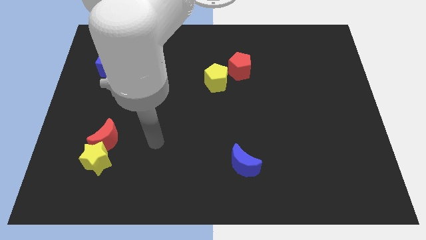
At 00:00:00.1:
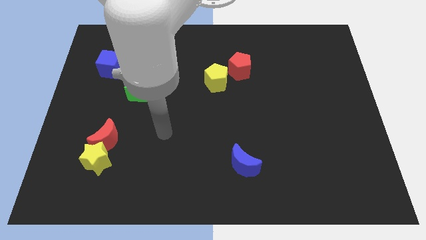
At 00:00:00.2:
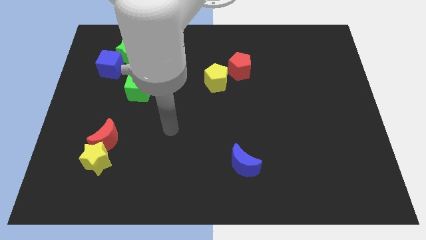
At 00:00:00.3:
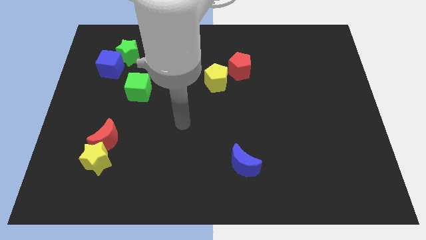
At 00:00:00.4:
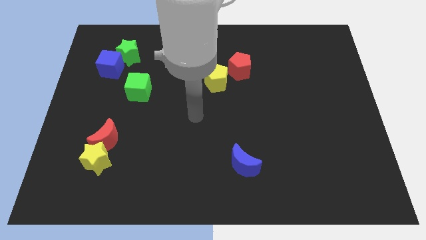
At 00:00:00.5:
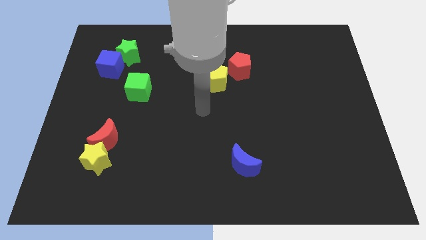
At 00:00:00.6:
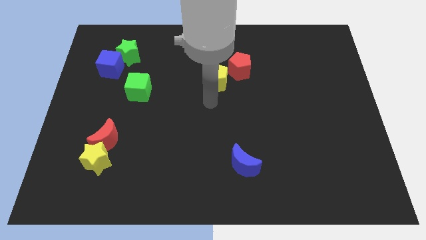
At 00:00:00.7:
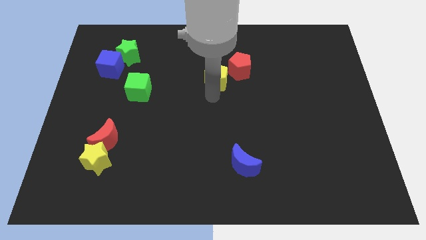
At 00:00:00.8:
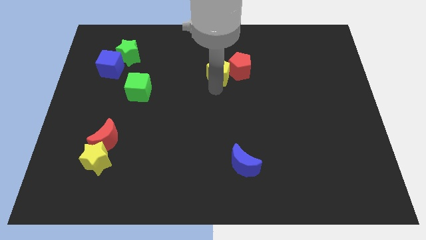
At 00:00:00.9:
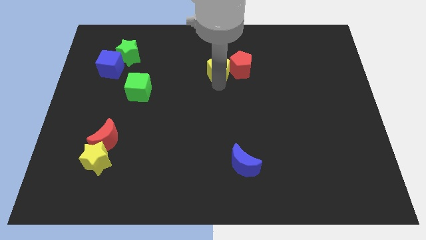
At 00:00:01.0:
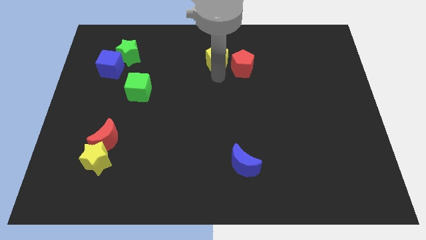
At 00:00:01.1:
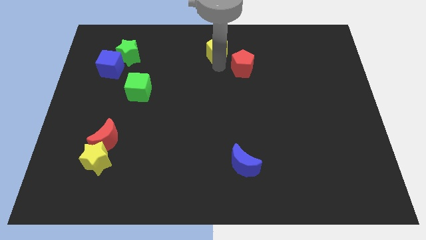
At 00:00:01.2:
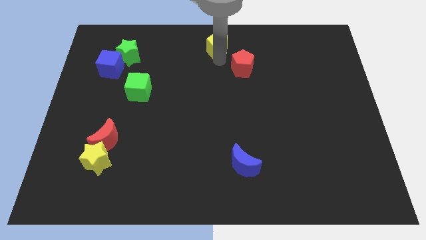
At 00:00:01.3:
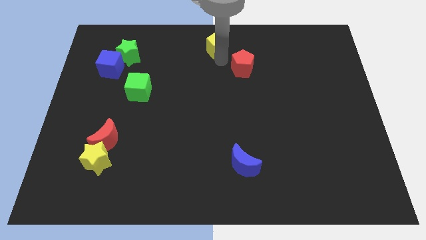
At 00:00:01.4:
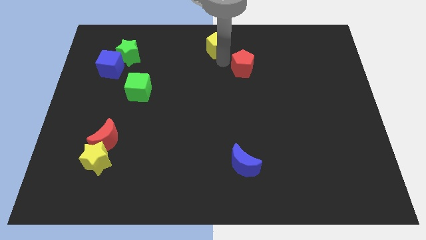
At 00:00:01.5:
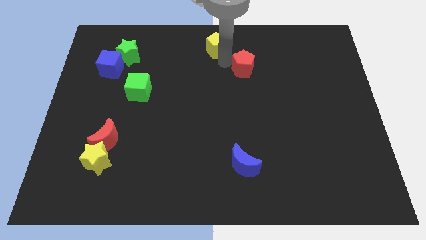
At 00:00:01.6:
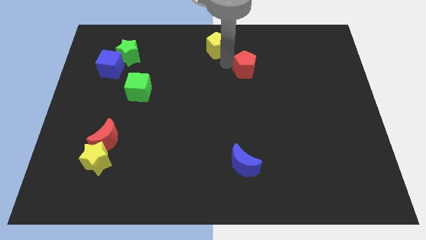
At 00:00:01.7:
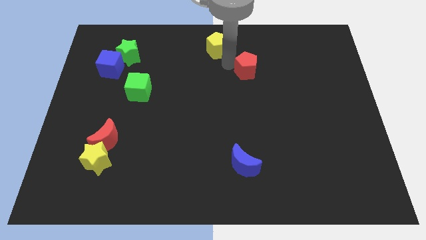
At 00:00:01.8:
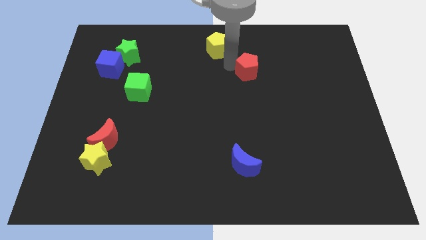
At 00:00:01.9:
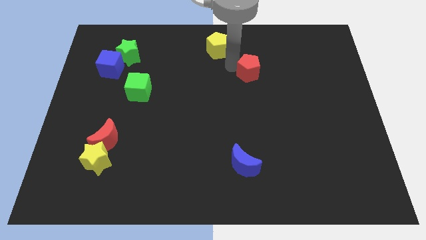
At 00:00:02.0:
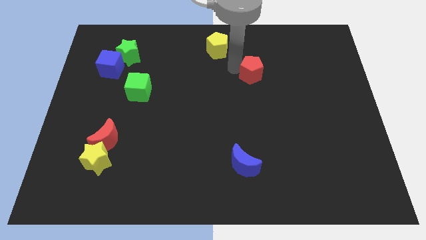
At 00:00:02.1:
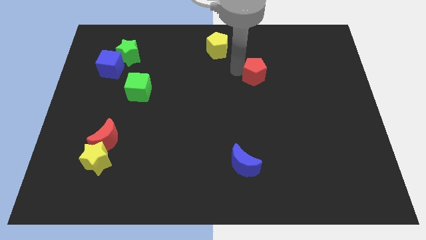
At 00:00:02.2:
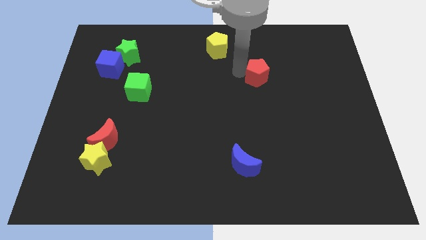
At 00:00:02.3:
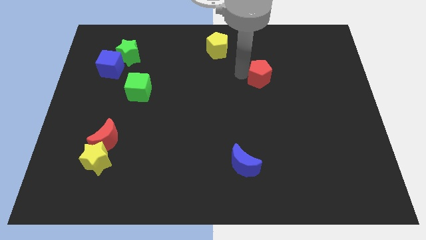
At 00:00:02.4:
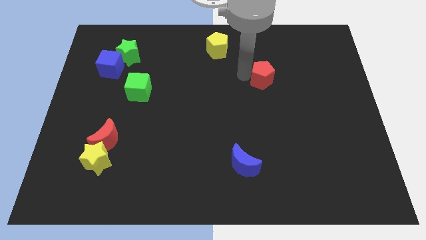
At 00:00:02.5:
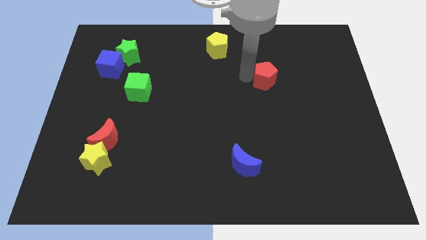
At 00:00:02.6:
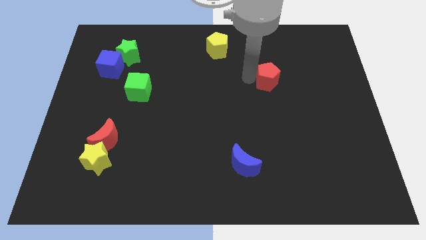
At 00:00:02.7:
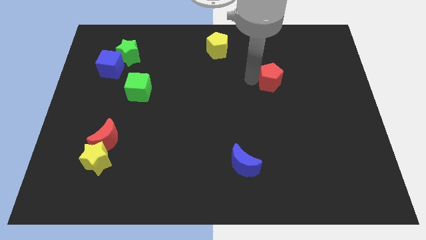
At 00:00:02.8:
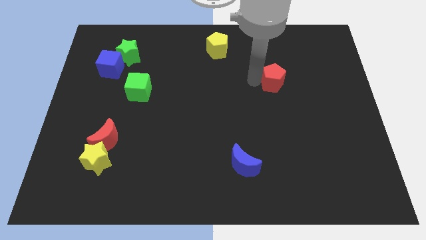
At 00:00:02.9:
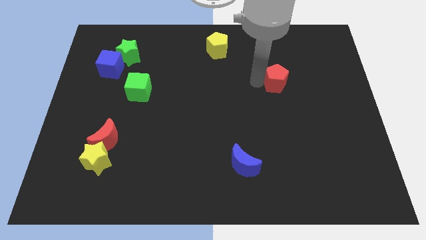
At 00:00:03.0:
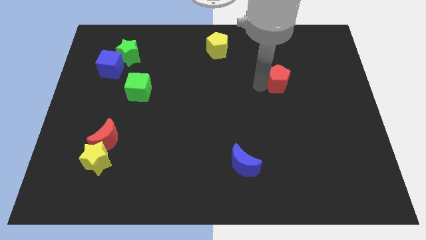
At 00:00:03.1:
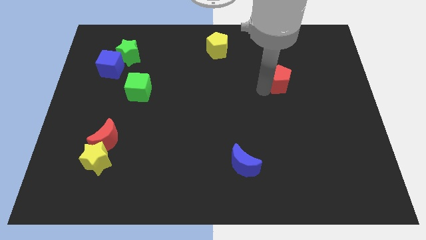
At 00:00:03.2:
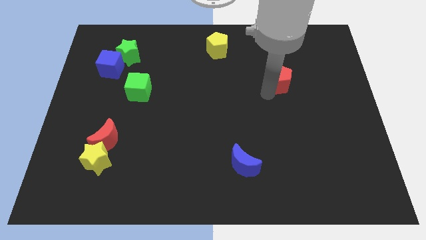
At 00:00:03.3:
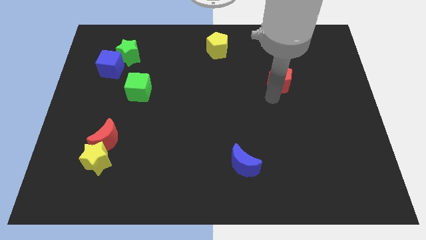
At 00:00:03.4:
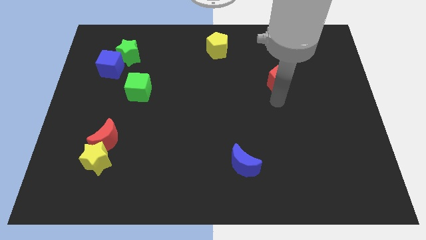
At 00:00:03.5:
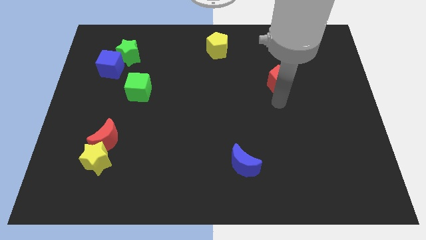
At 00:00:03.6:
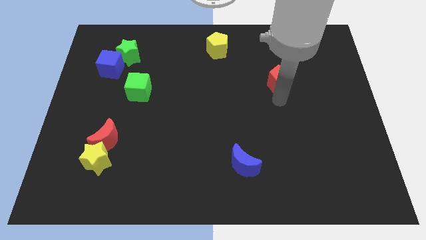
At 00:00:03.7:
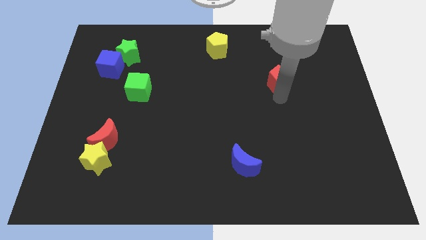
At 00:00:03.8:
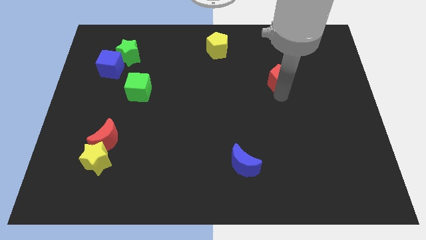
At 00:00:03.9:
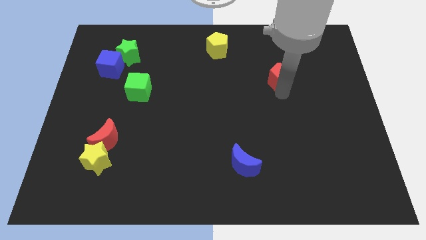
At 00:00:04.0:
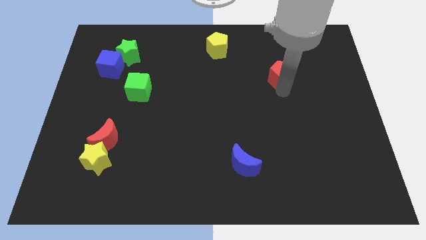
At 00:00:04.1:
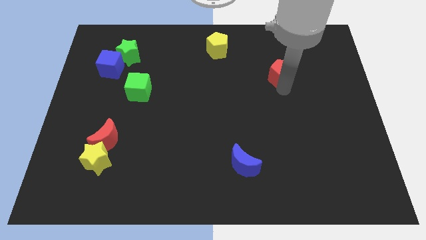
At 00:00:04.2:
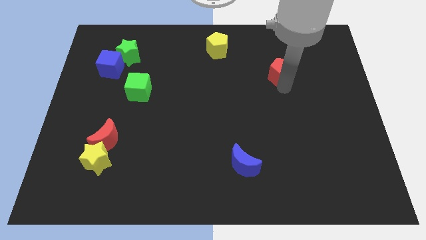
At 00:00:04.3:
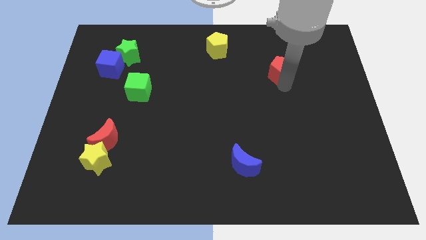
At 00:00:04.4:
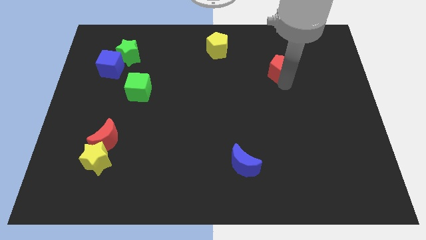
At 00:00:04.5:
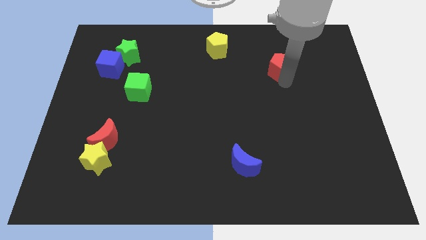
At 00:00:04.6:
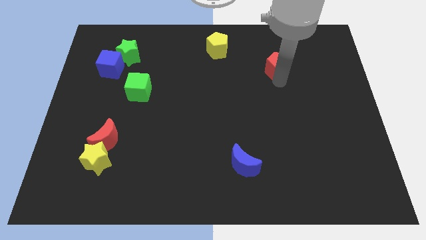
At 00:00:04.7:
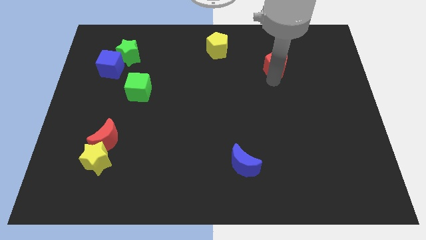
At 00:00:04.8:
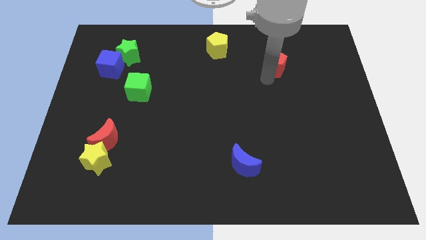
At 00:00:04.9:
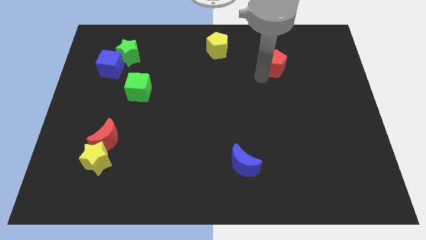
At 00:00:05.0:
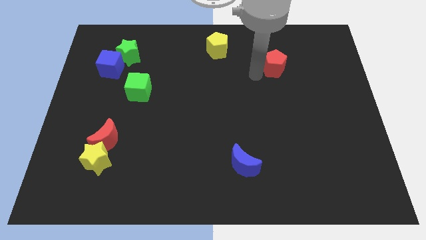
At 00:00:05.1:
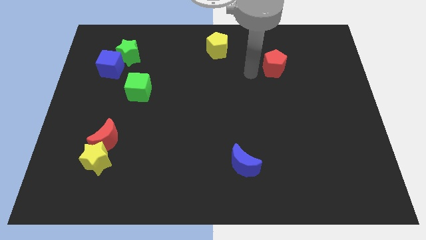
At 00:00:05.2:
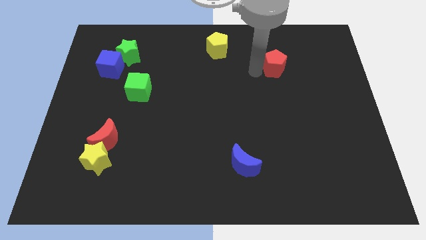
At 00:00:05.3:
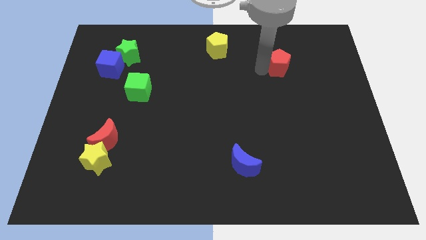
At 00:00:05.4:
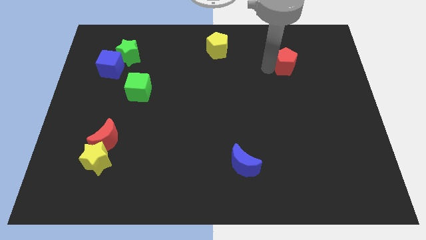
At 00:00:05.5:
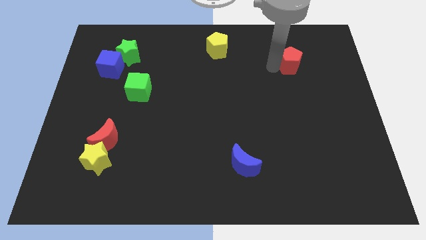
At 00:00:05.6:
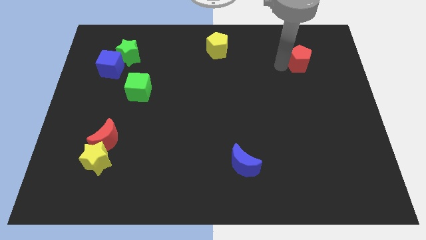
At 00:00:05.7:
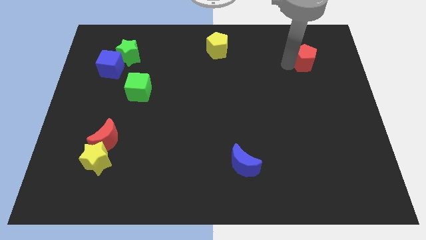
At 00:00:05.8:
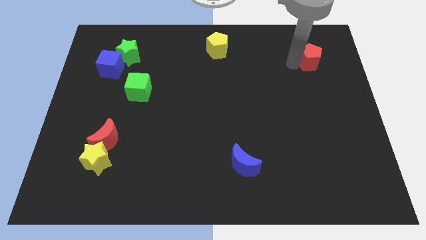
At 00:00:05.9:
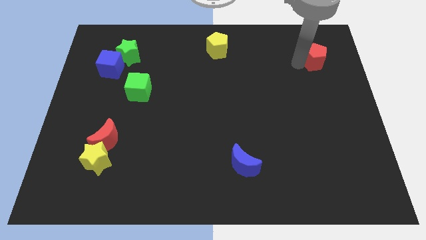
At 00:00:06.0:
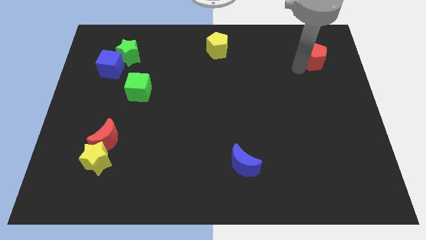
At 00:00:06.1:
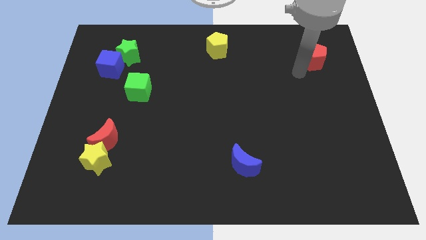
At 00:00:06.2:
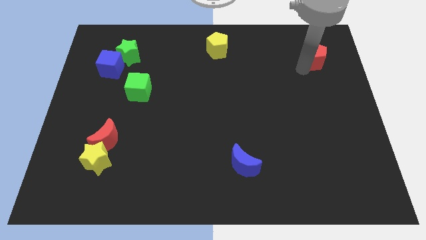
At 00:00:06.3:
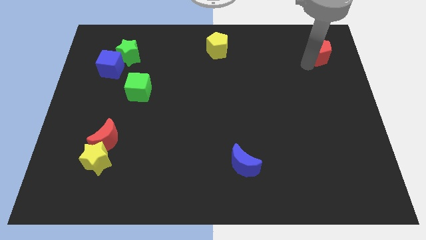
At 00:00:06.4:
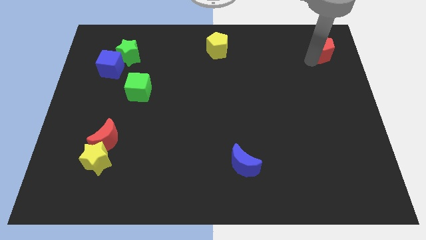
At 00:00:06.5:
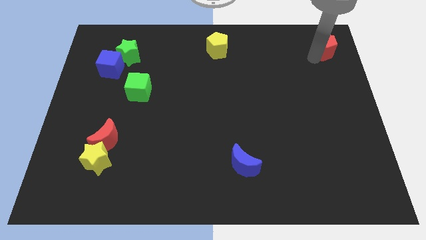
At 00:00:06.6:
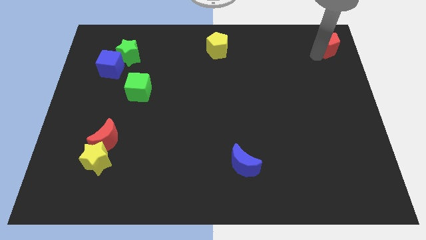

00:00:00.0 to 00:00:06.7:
slide the red pentagon to the upper right corner
